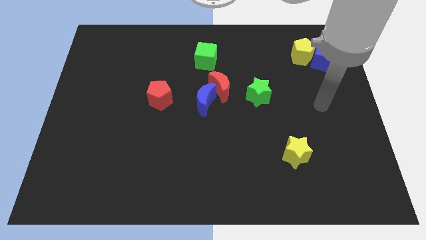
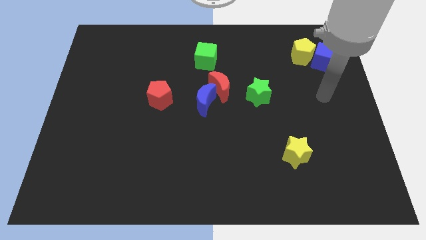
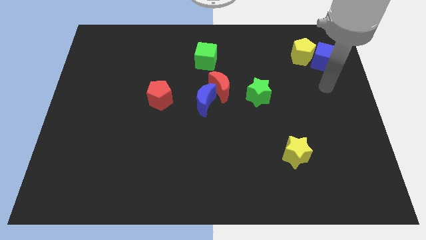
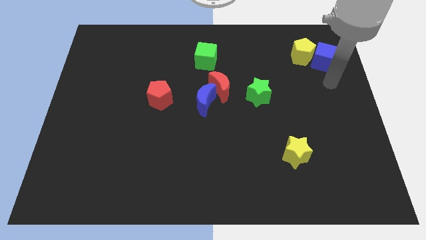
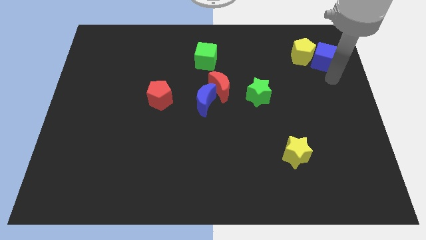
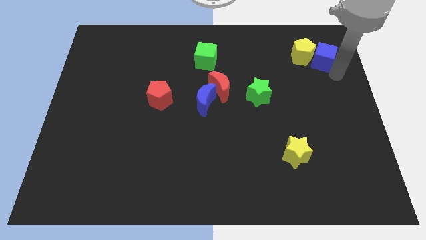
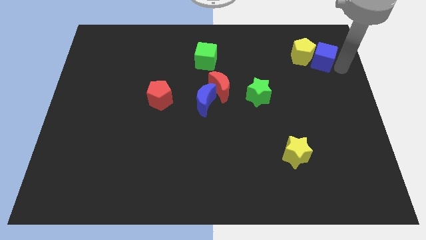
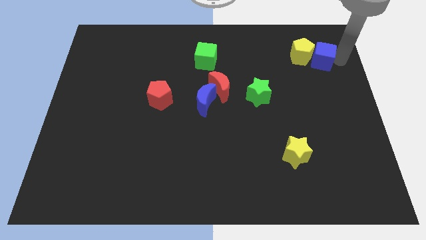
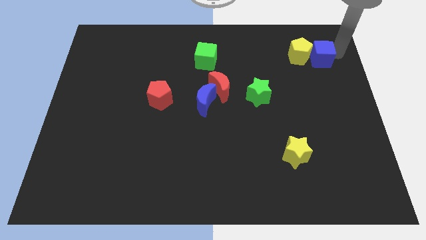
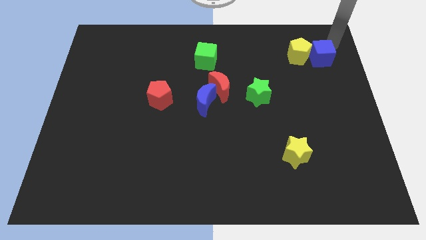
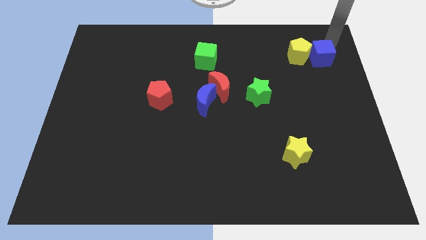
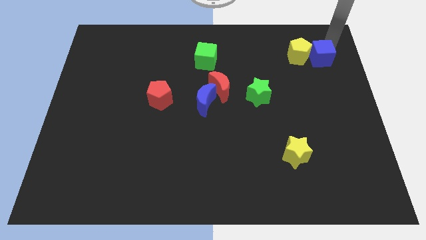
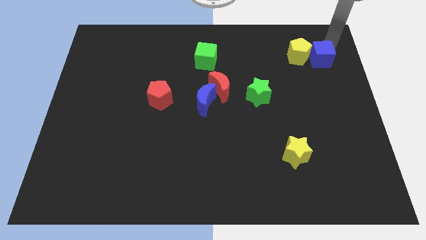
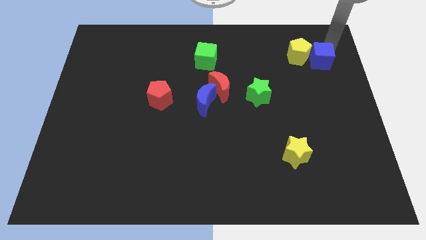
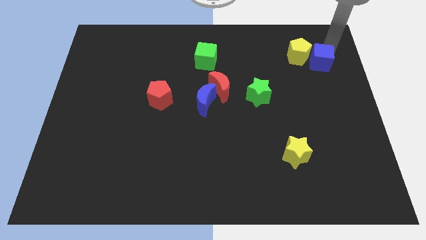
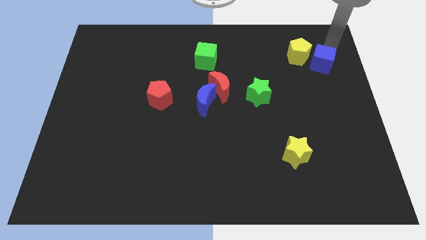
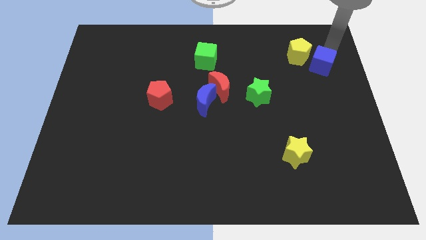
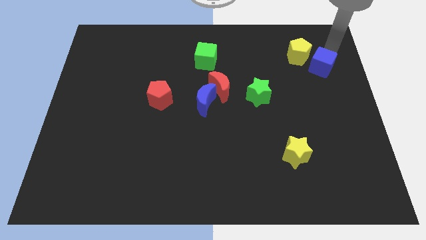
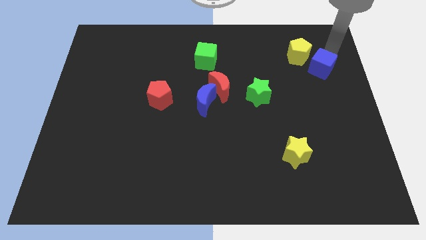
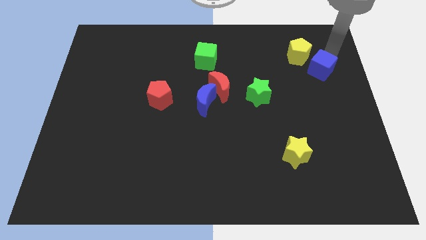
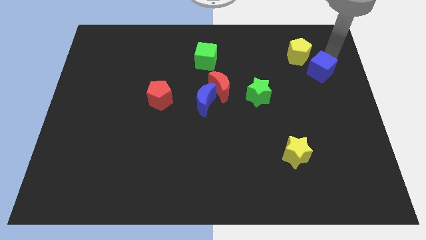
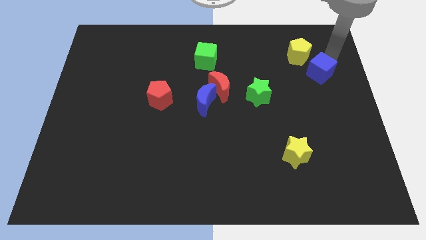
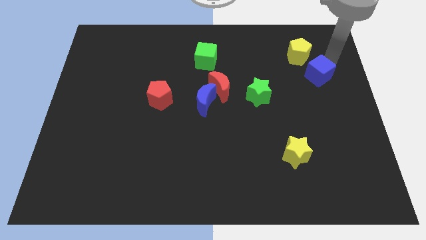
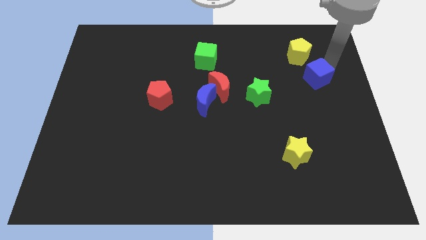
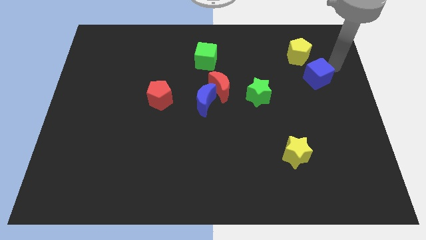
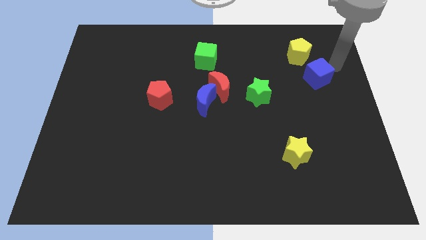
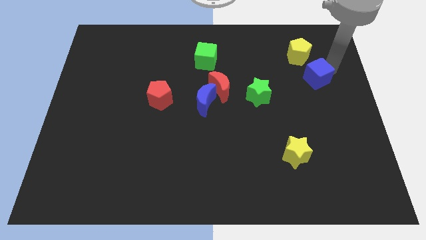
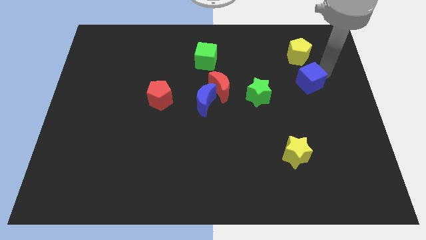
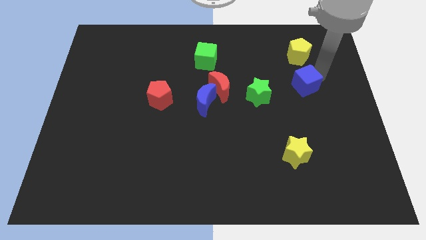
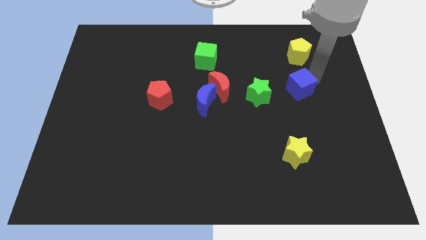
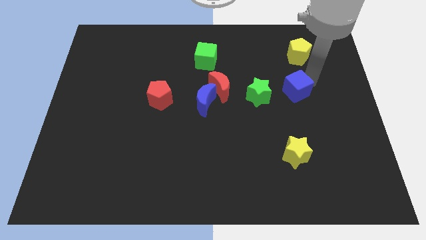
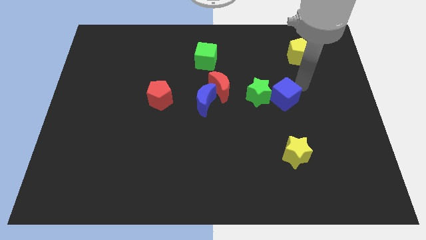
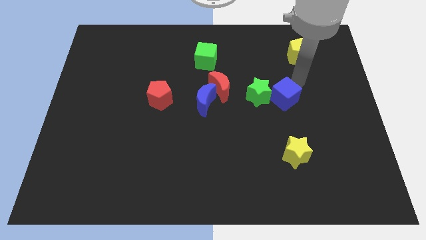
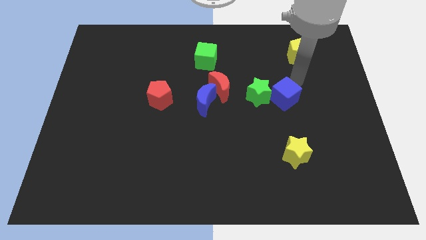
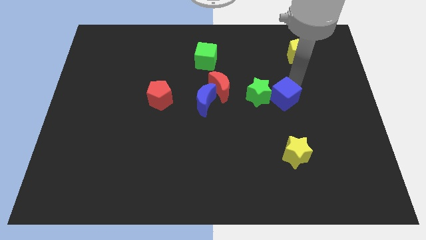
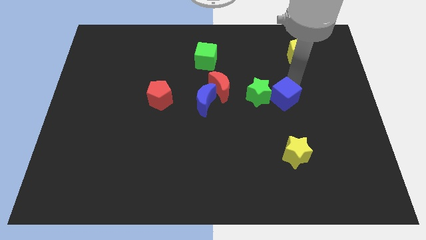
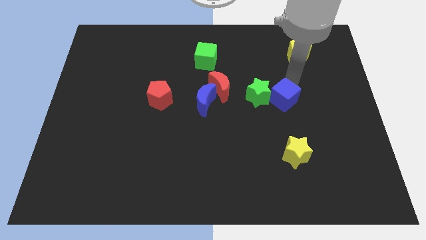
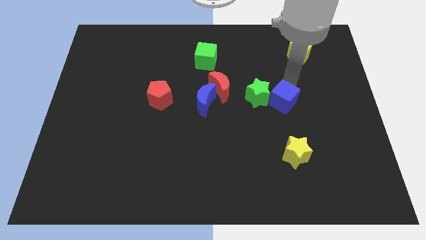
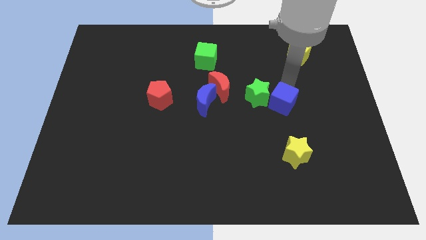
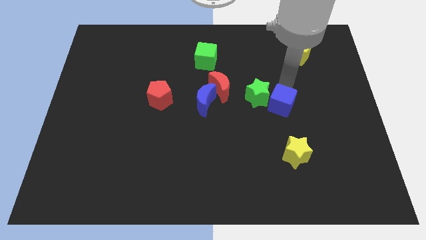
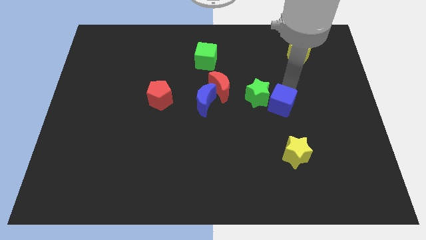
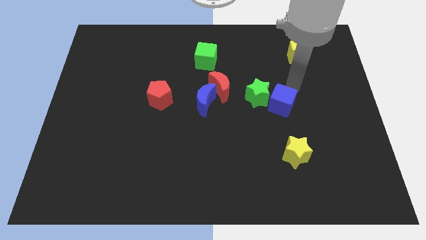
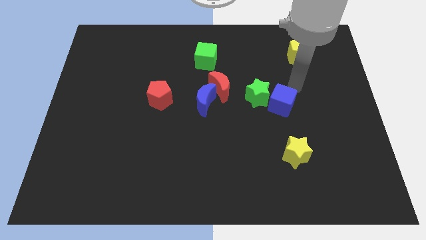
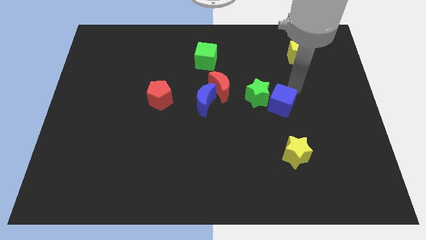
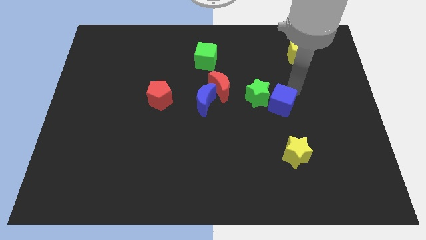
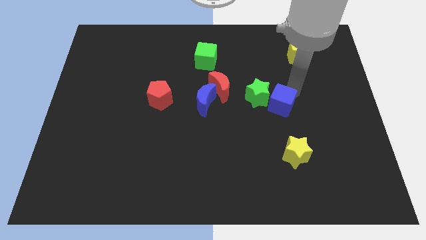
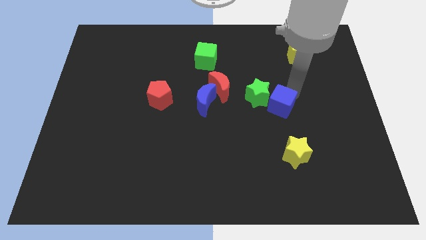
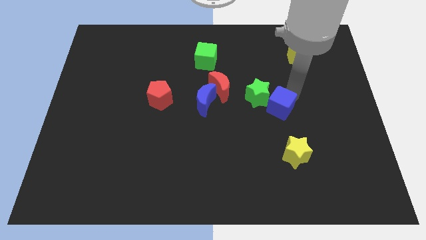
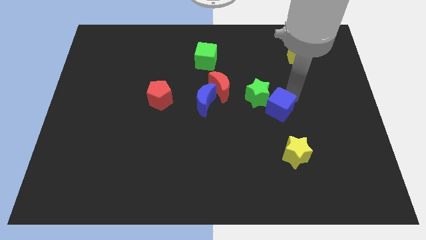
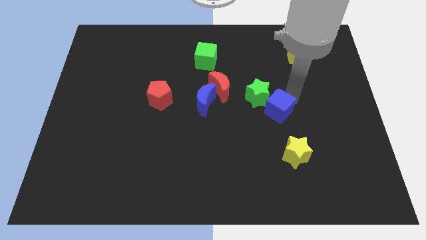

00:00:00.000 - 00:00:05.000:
move the blue cube below the green star

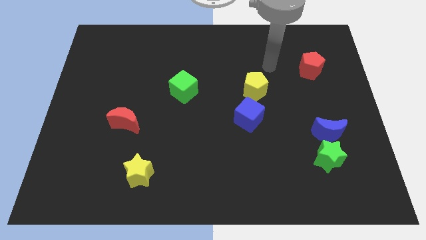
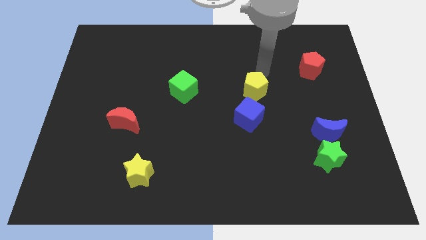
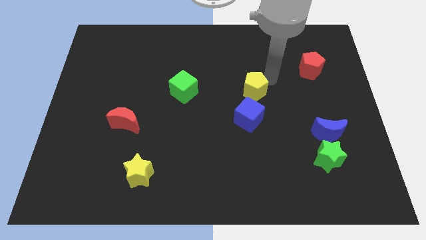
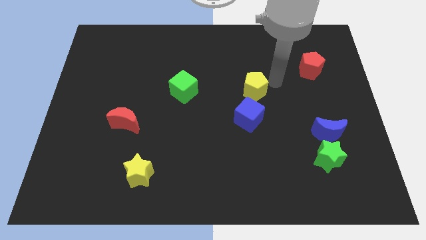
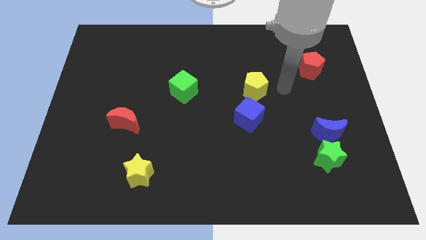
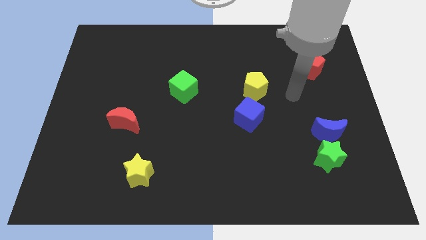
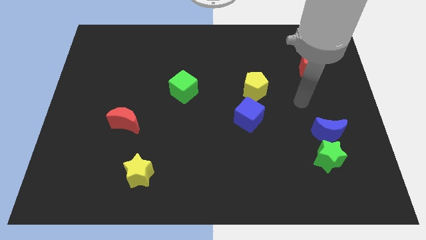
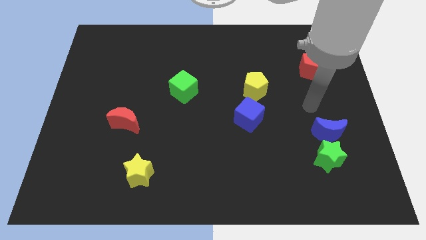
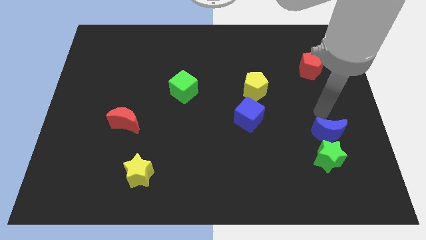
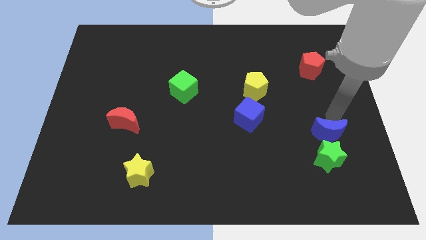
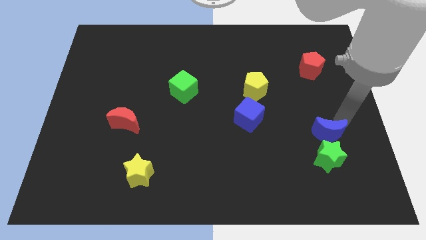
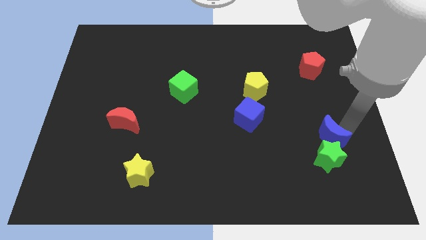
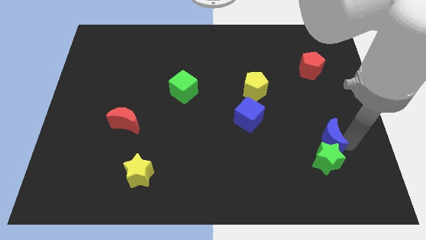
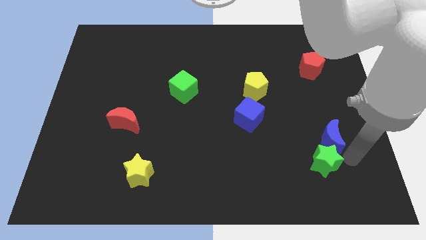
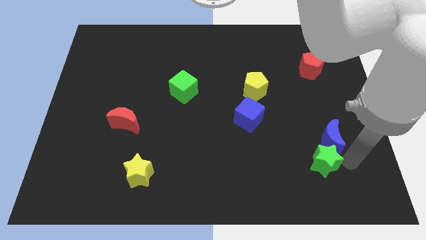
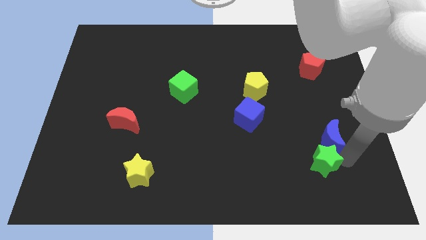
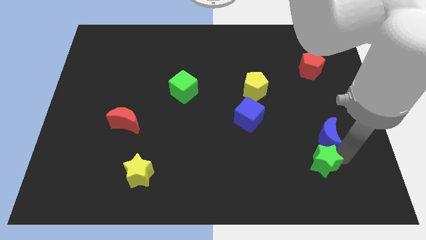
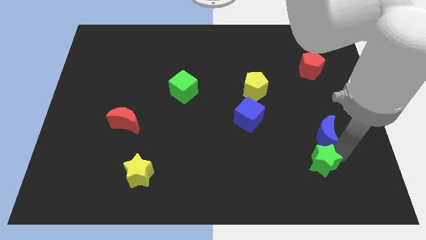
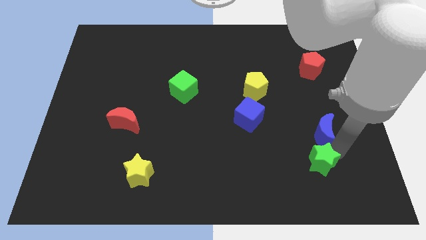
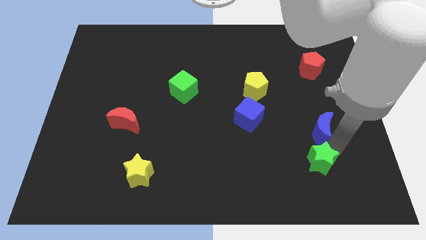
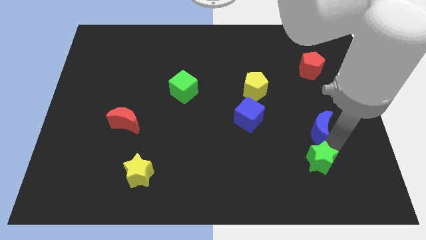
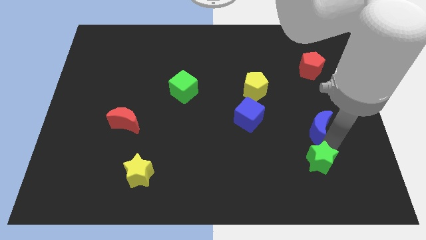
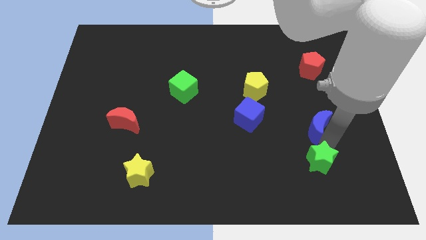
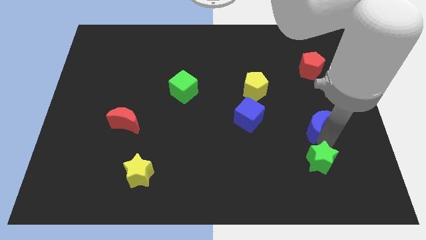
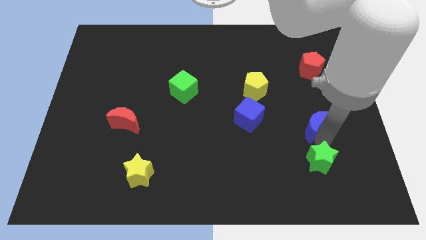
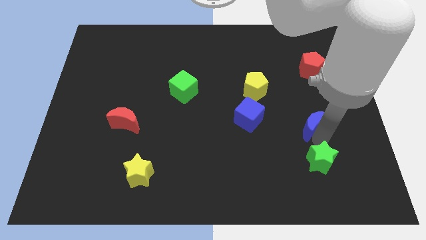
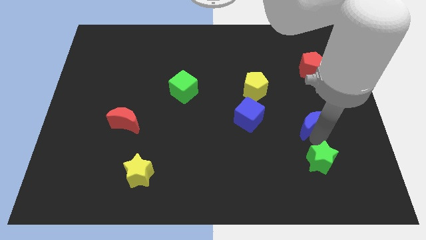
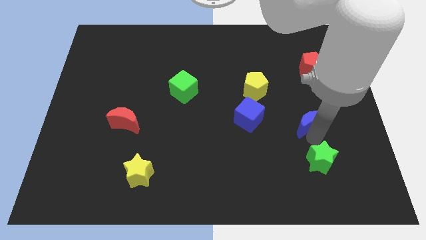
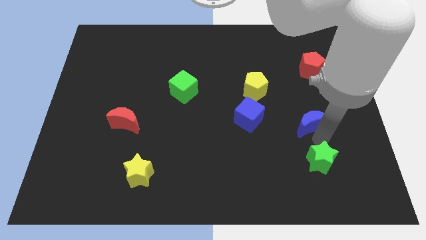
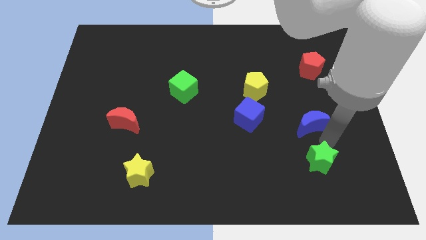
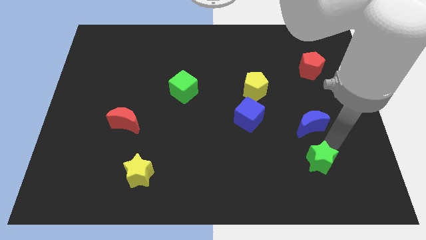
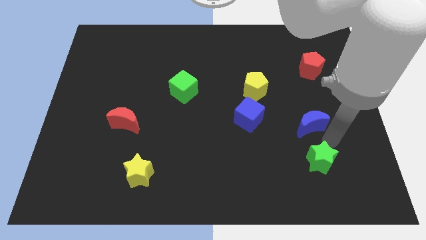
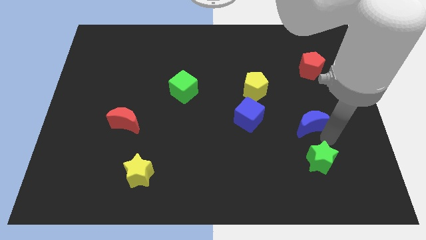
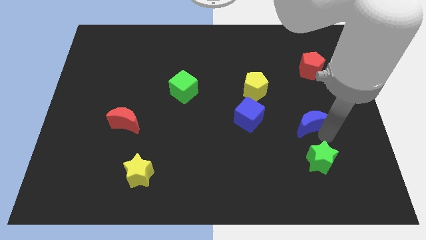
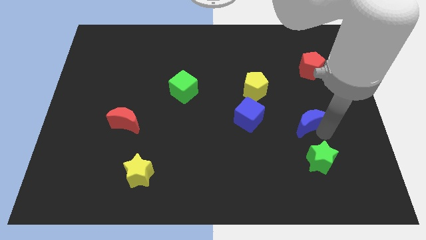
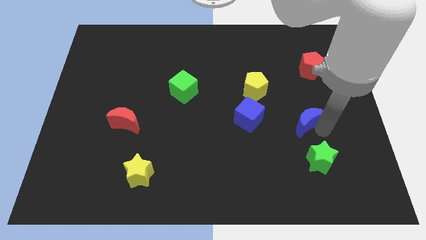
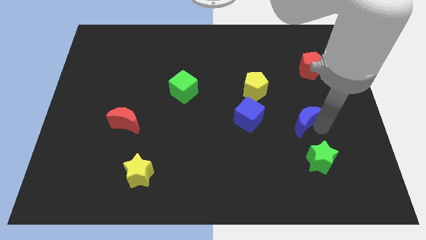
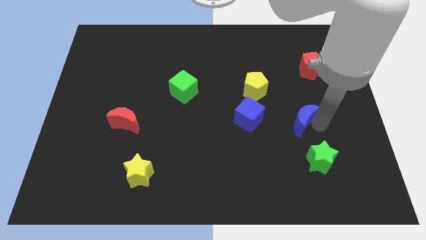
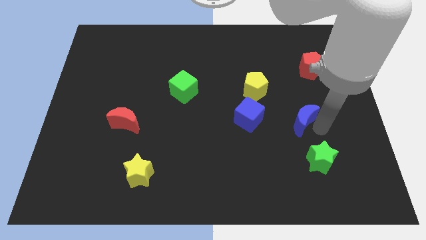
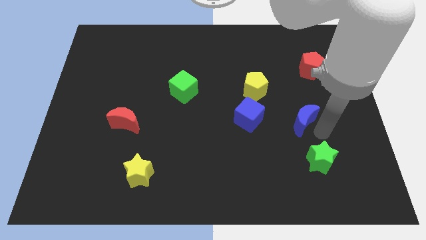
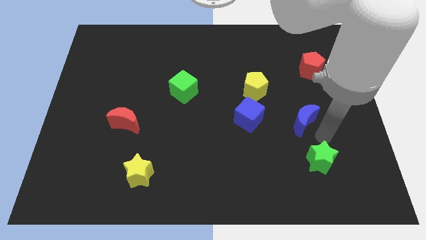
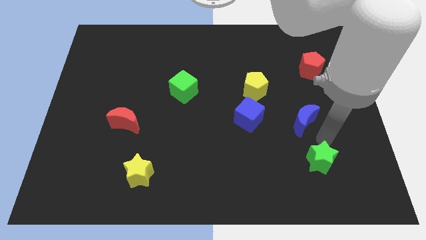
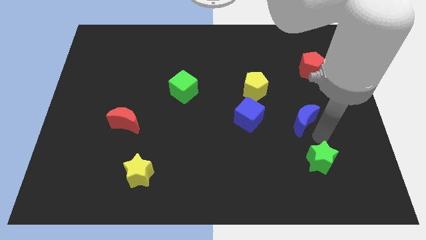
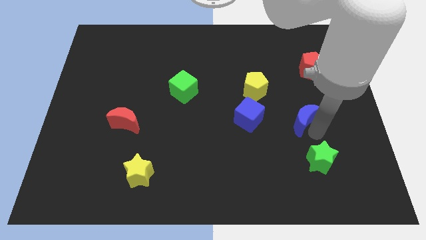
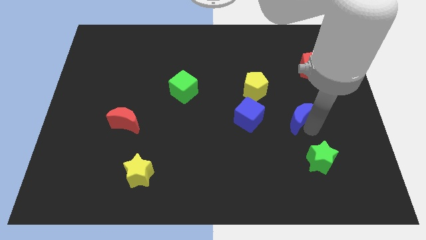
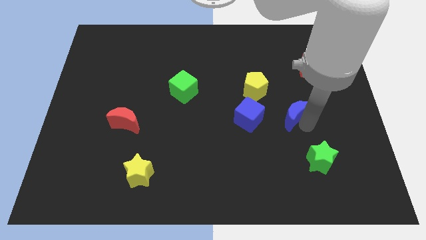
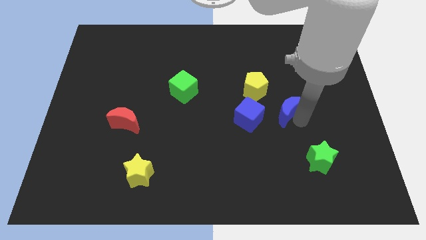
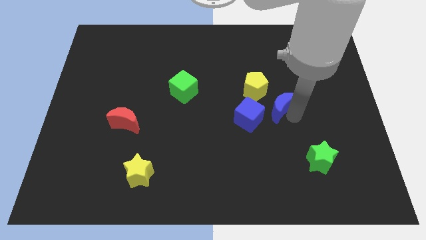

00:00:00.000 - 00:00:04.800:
push the blue moon to the top right of the blue cube
